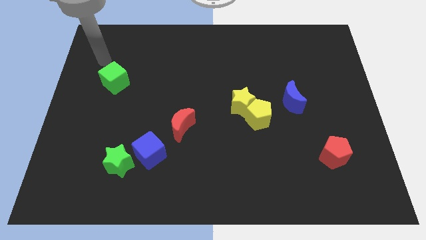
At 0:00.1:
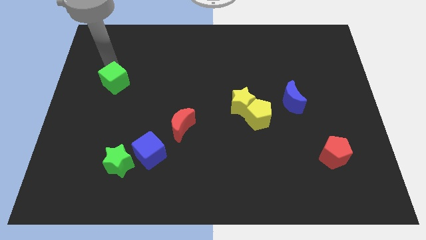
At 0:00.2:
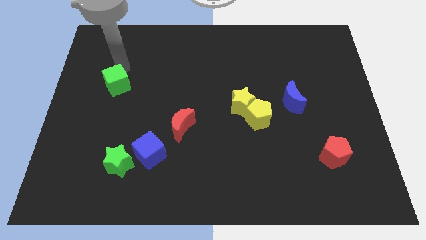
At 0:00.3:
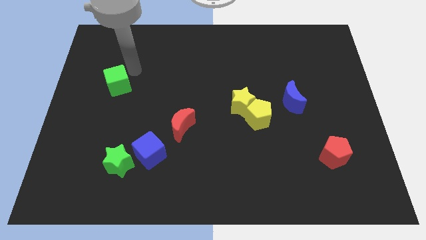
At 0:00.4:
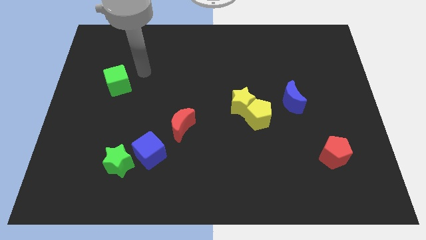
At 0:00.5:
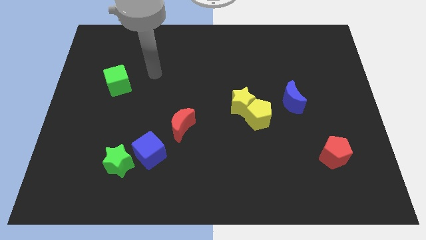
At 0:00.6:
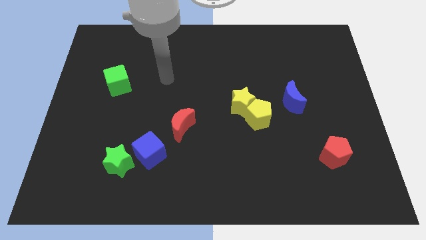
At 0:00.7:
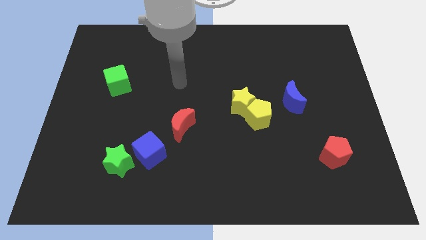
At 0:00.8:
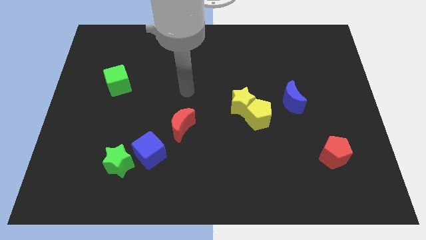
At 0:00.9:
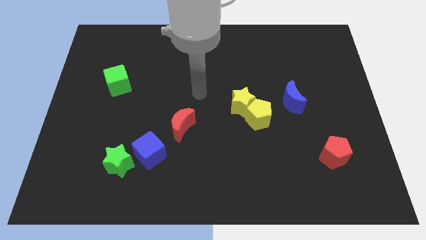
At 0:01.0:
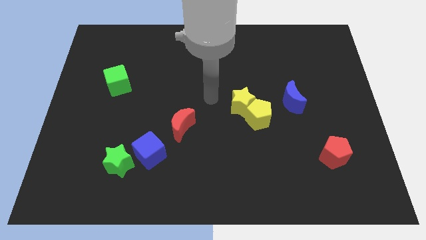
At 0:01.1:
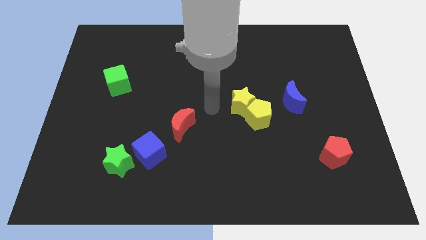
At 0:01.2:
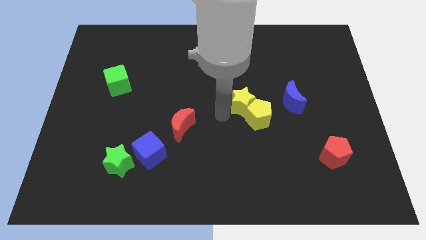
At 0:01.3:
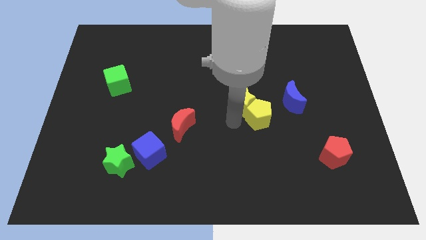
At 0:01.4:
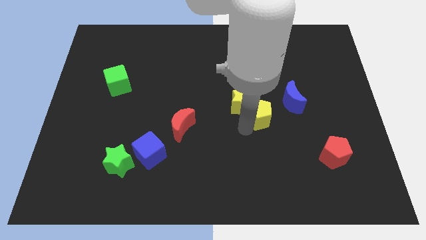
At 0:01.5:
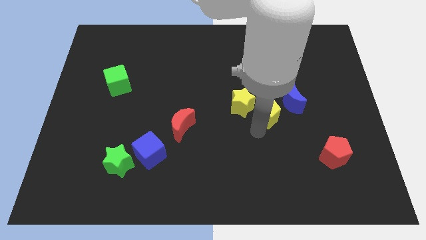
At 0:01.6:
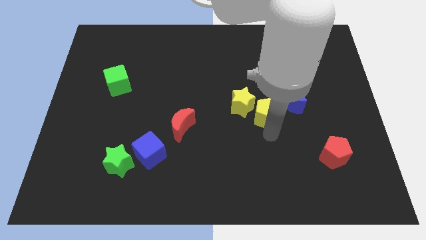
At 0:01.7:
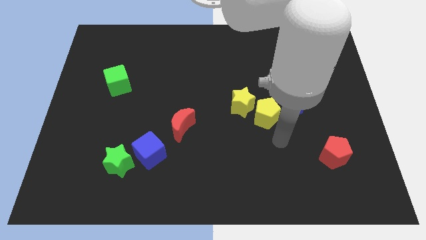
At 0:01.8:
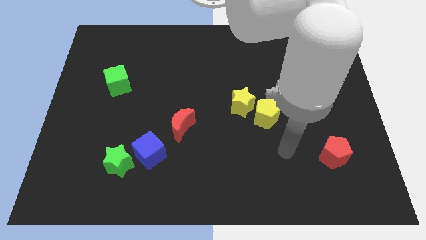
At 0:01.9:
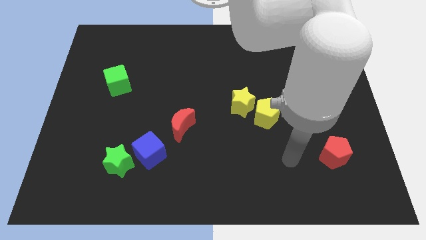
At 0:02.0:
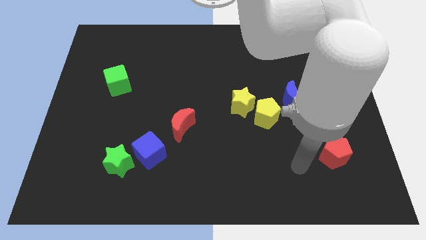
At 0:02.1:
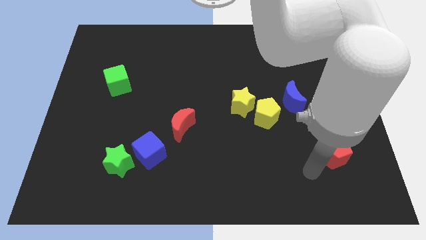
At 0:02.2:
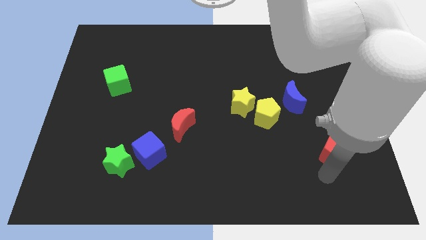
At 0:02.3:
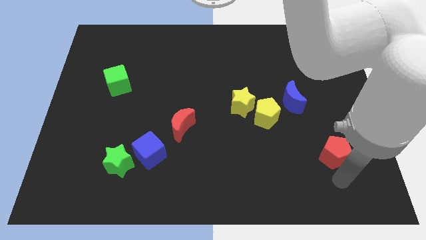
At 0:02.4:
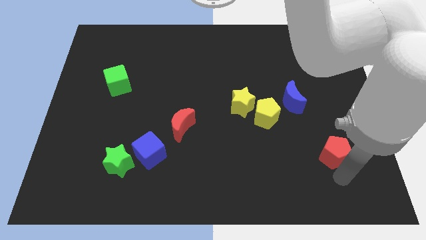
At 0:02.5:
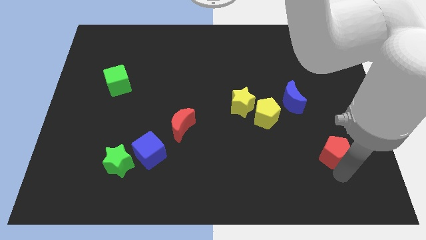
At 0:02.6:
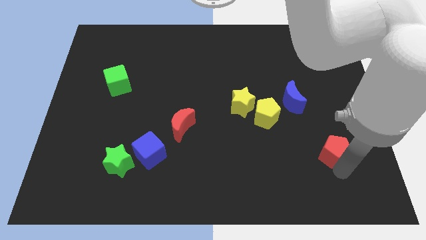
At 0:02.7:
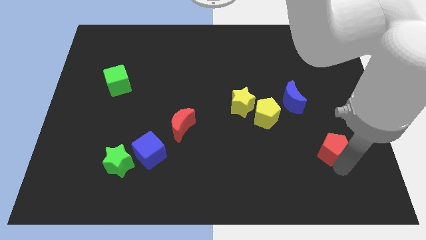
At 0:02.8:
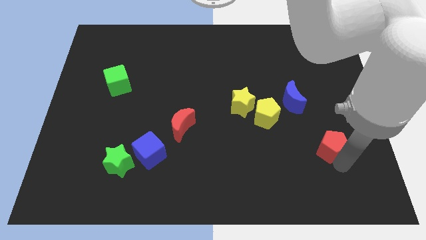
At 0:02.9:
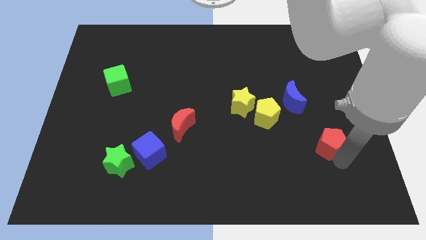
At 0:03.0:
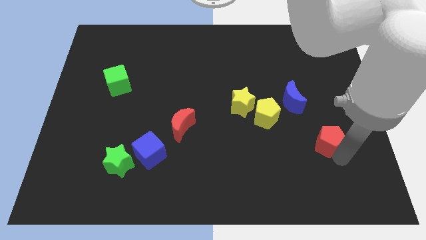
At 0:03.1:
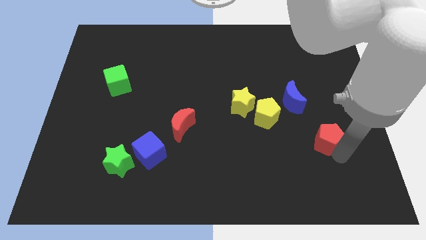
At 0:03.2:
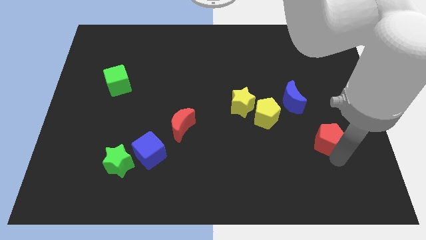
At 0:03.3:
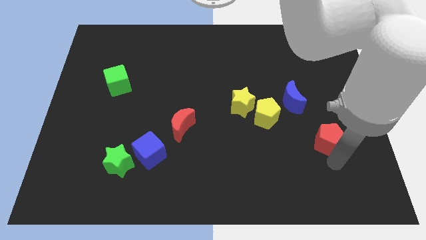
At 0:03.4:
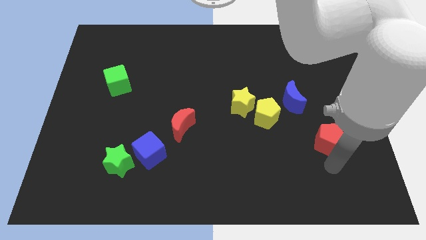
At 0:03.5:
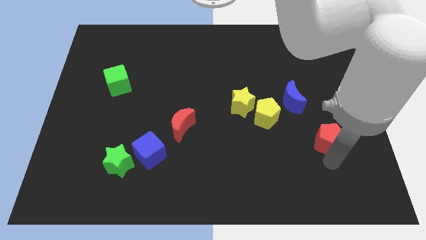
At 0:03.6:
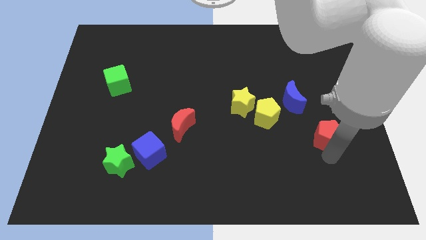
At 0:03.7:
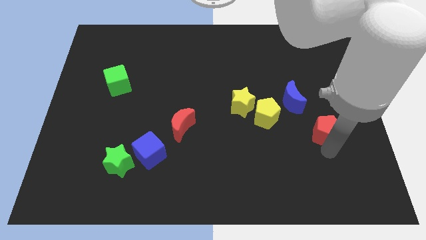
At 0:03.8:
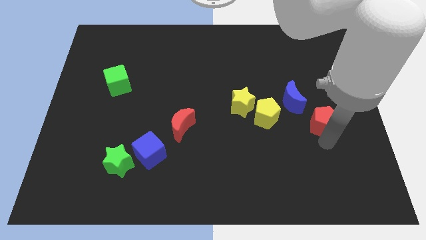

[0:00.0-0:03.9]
slightly move the red pentagon upwards

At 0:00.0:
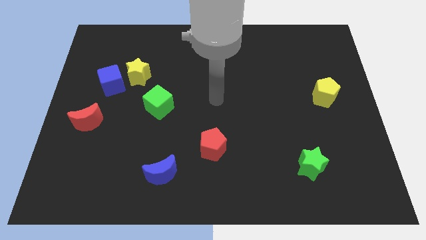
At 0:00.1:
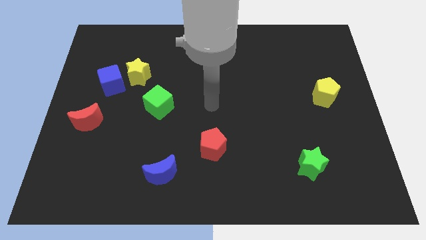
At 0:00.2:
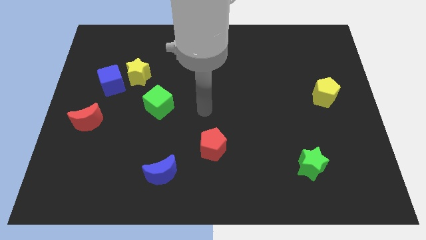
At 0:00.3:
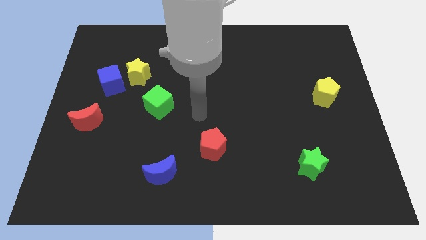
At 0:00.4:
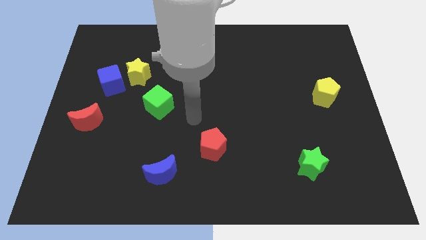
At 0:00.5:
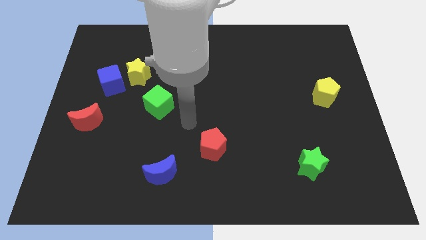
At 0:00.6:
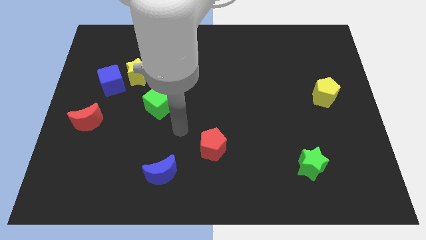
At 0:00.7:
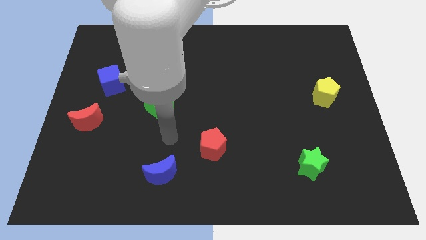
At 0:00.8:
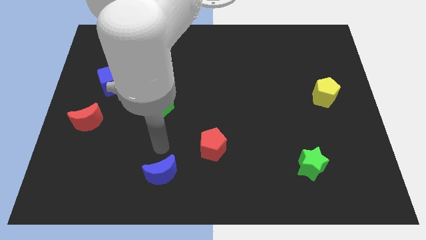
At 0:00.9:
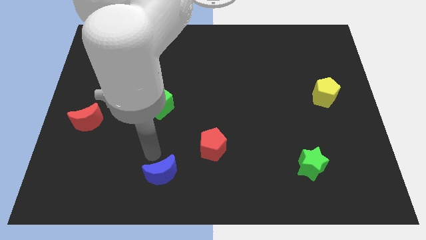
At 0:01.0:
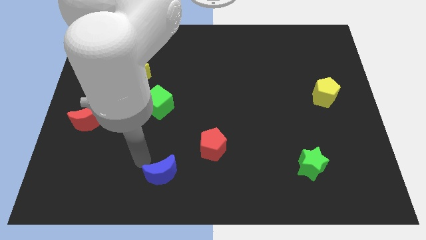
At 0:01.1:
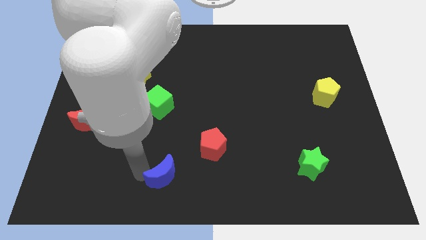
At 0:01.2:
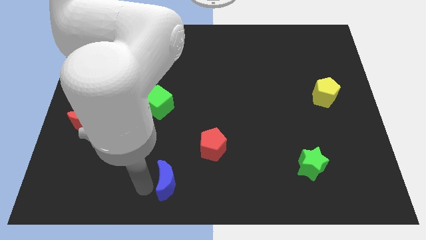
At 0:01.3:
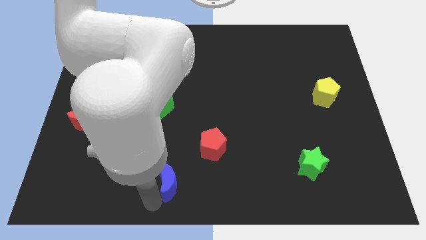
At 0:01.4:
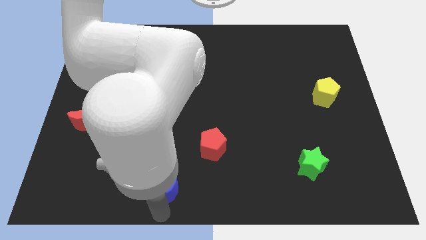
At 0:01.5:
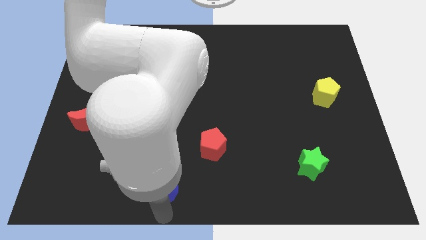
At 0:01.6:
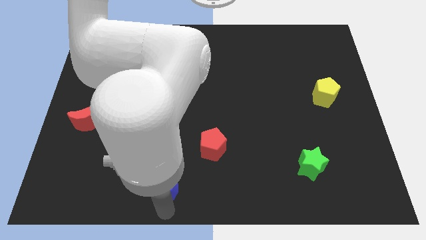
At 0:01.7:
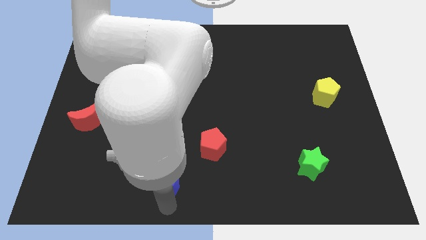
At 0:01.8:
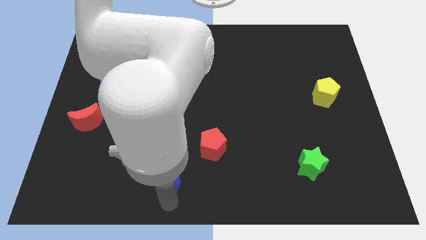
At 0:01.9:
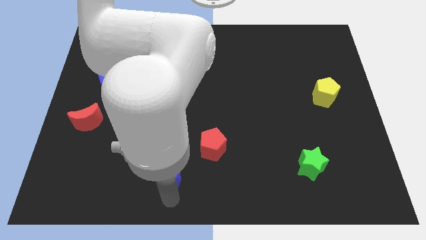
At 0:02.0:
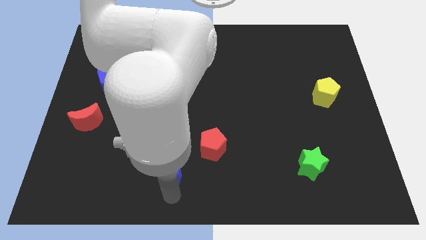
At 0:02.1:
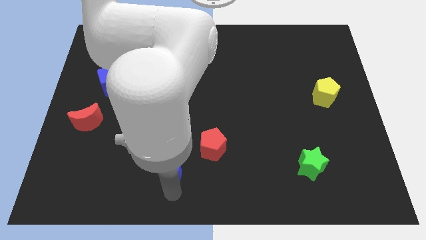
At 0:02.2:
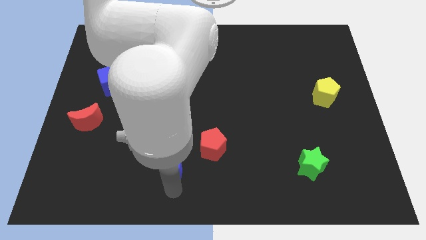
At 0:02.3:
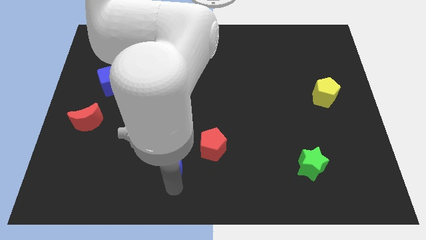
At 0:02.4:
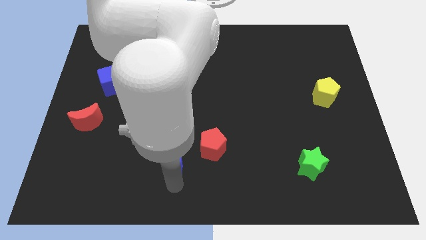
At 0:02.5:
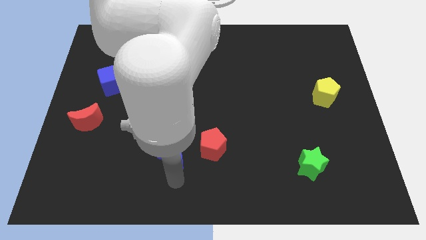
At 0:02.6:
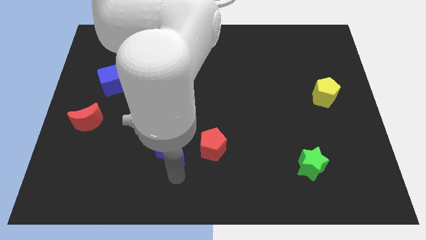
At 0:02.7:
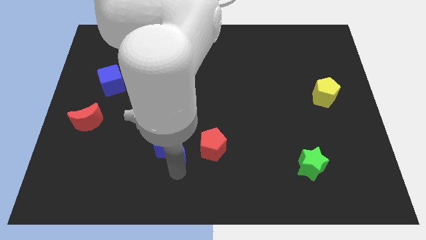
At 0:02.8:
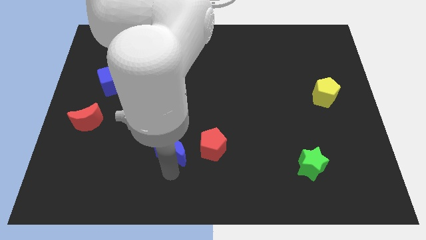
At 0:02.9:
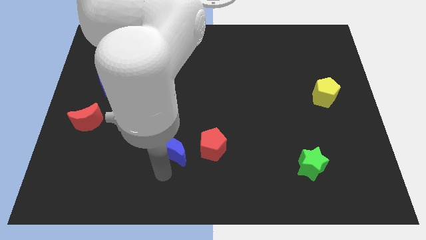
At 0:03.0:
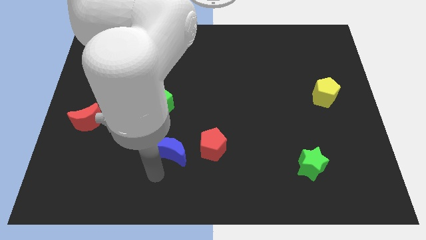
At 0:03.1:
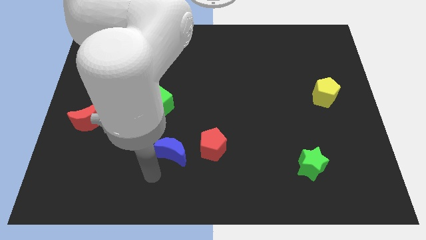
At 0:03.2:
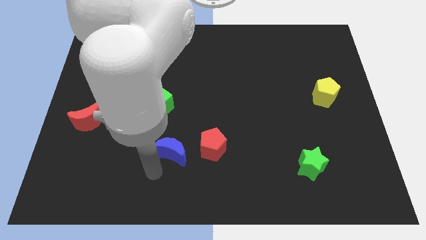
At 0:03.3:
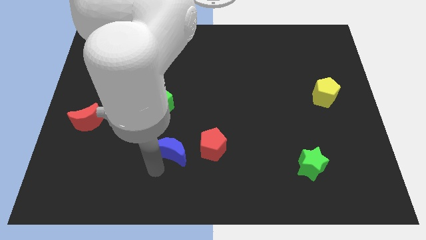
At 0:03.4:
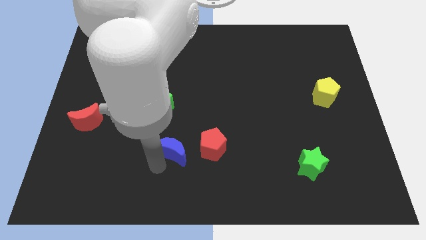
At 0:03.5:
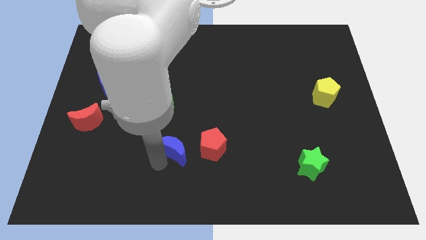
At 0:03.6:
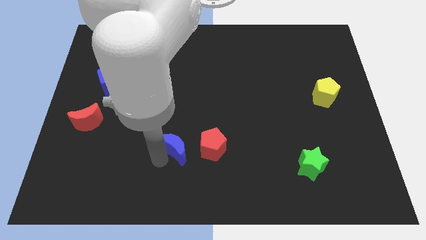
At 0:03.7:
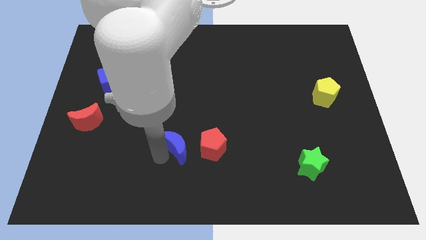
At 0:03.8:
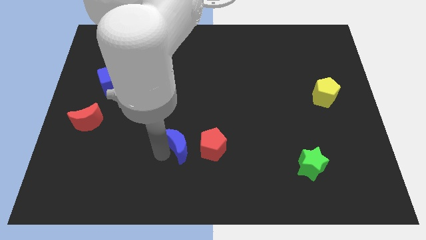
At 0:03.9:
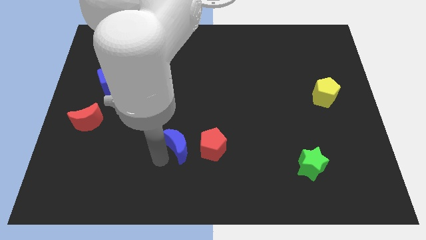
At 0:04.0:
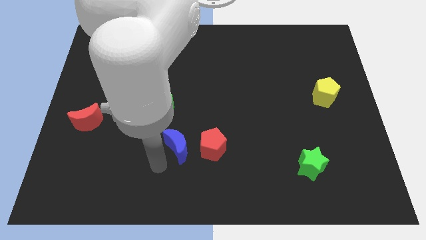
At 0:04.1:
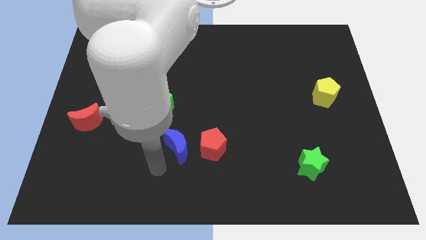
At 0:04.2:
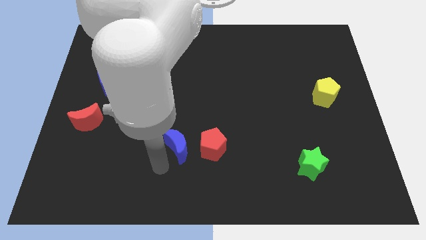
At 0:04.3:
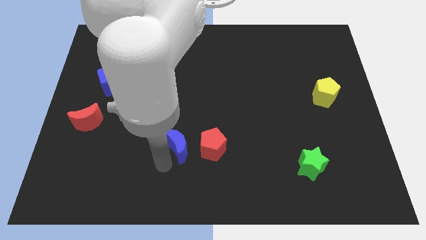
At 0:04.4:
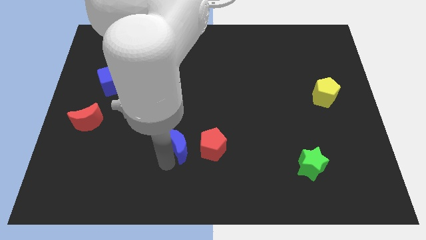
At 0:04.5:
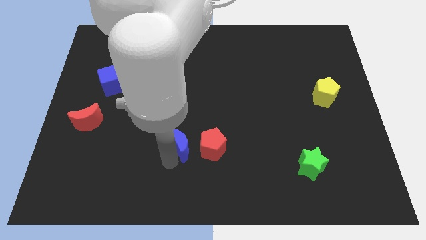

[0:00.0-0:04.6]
slightly slide the blue moon diagonally up and to the right
